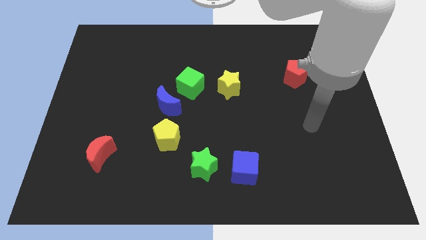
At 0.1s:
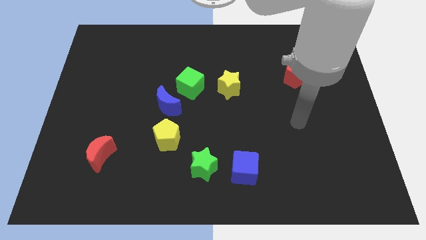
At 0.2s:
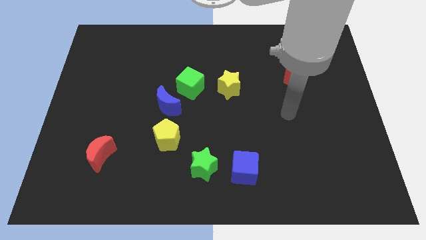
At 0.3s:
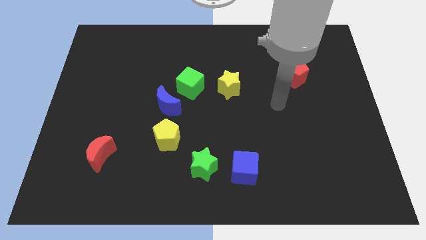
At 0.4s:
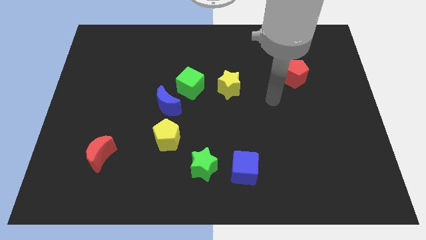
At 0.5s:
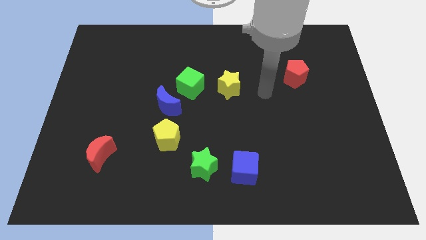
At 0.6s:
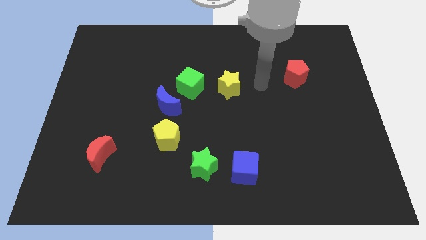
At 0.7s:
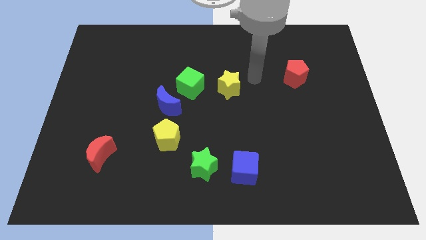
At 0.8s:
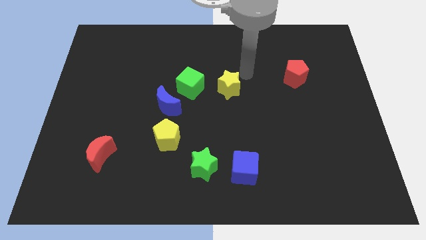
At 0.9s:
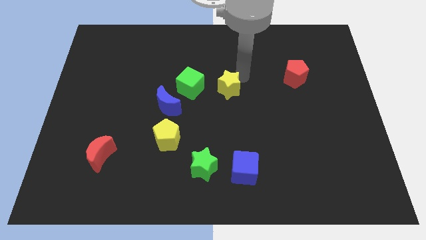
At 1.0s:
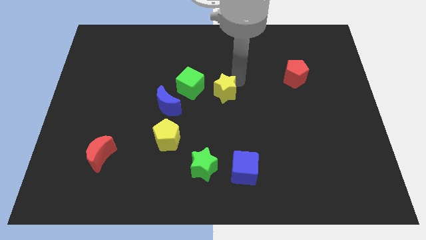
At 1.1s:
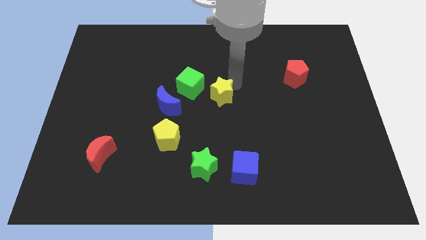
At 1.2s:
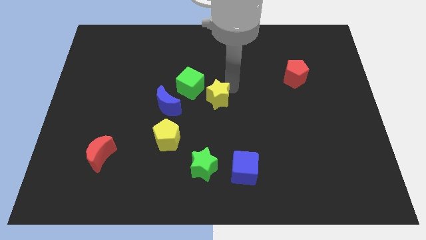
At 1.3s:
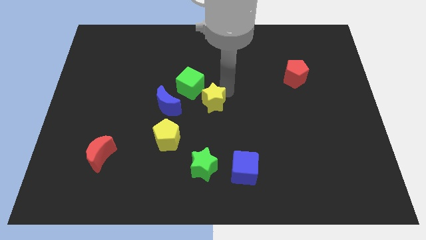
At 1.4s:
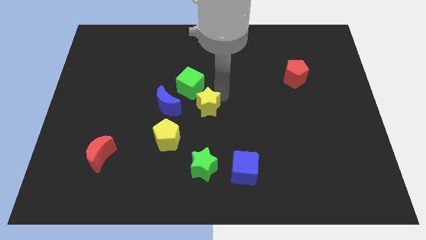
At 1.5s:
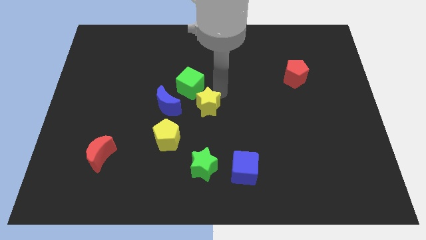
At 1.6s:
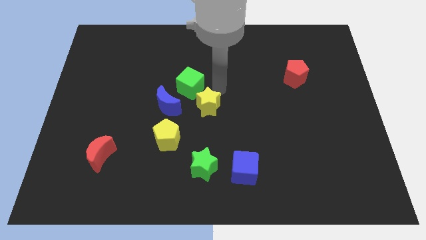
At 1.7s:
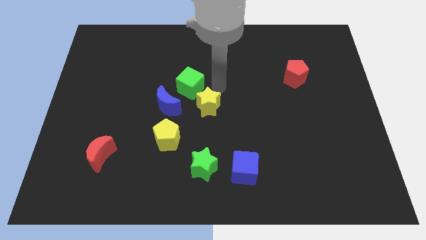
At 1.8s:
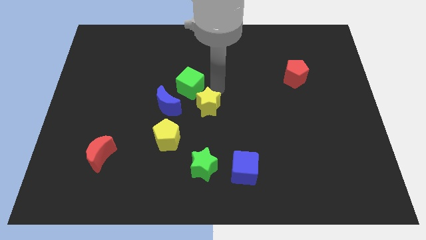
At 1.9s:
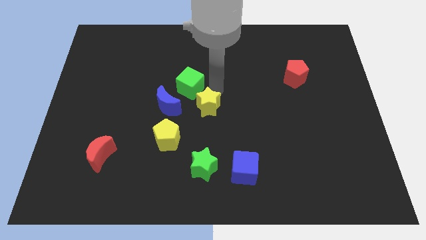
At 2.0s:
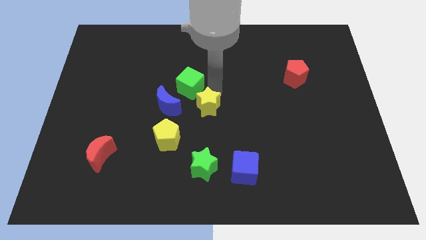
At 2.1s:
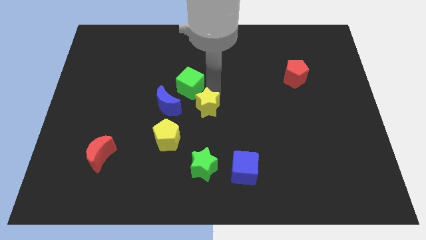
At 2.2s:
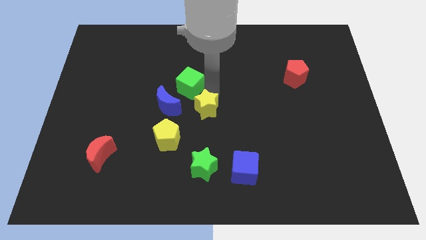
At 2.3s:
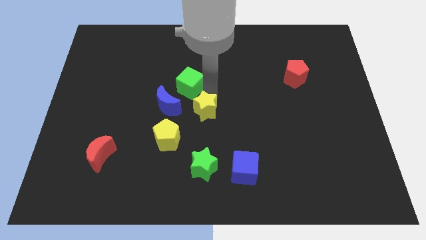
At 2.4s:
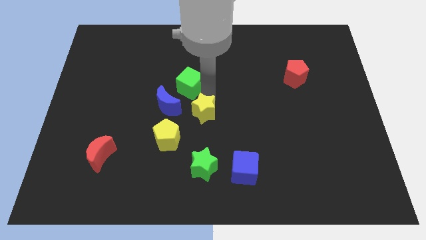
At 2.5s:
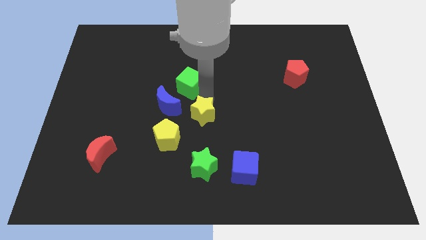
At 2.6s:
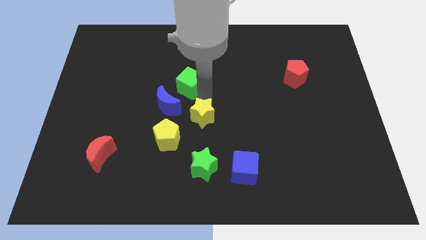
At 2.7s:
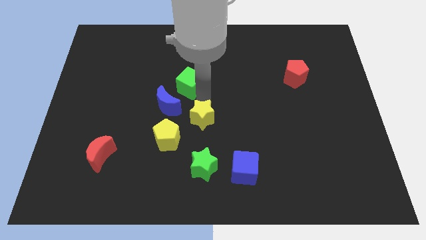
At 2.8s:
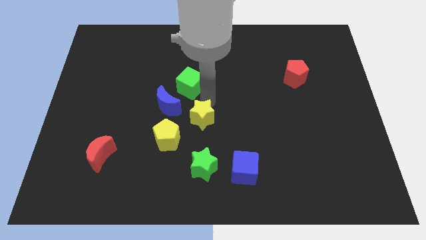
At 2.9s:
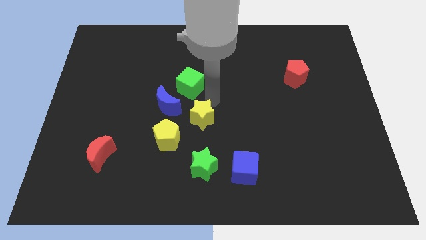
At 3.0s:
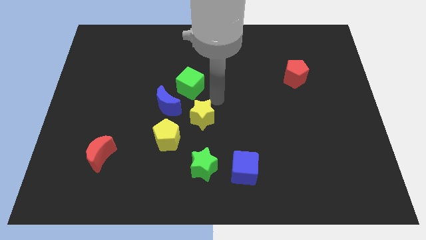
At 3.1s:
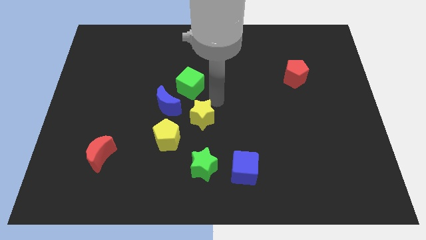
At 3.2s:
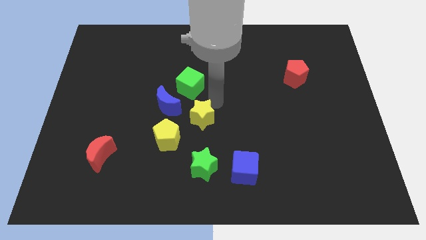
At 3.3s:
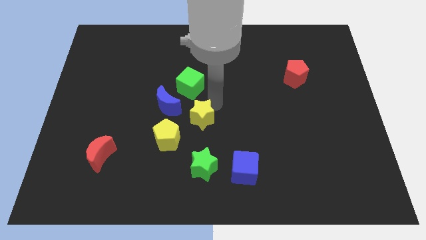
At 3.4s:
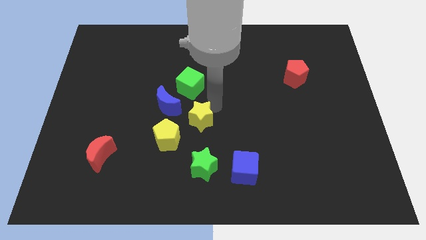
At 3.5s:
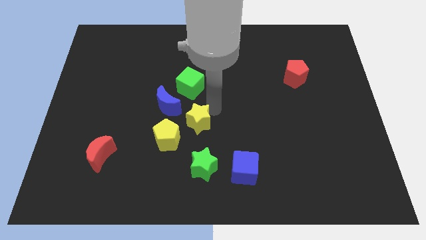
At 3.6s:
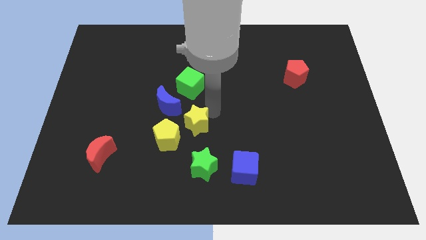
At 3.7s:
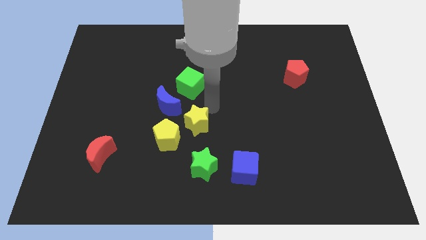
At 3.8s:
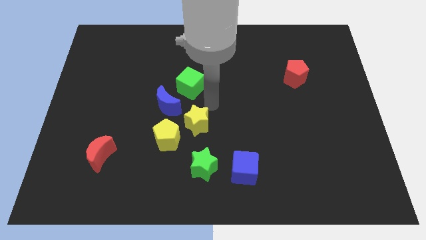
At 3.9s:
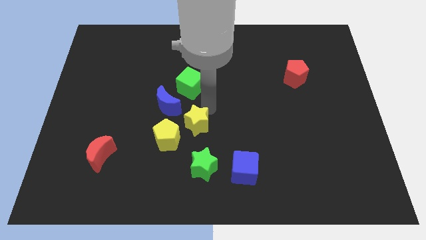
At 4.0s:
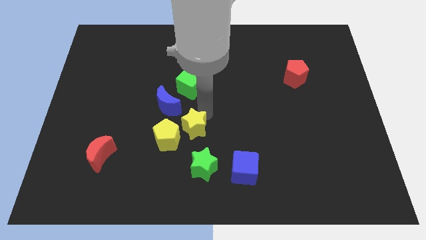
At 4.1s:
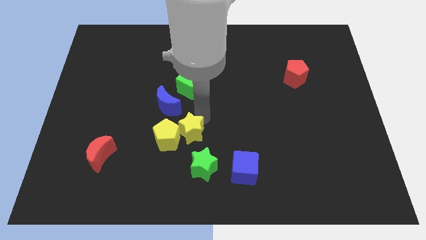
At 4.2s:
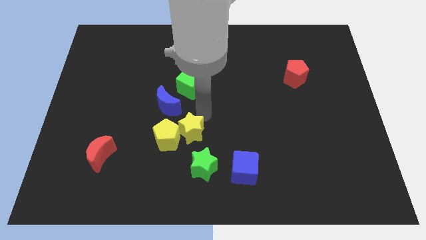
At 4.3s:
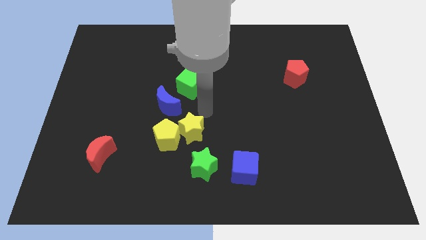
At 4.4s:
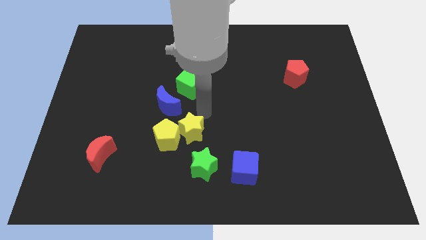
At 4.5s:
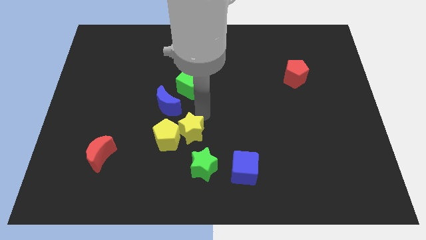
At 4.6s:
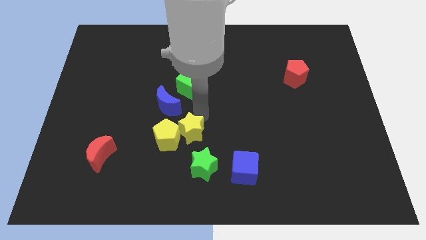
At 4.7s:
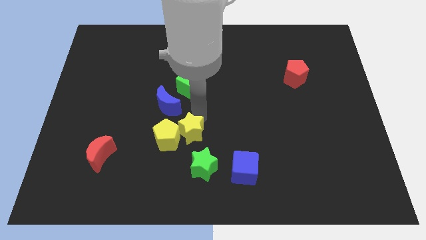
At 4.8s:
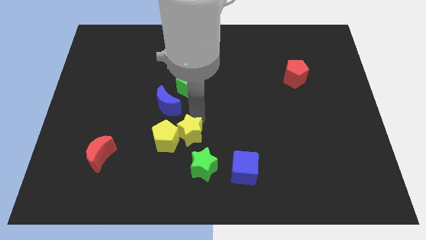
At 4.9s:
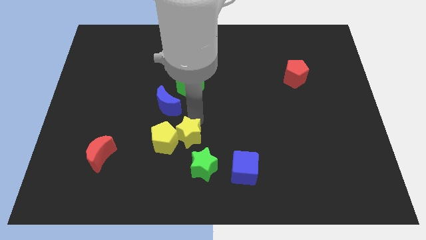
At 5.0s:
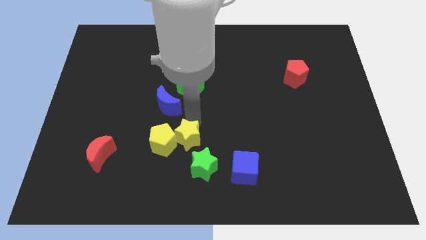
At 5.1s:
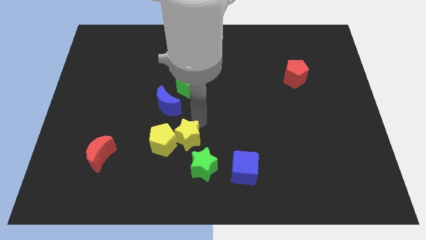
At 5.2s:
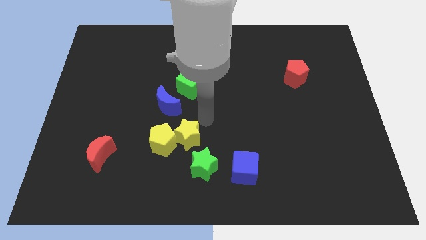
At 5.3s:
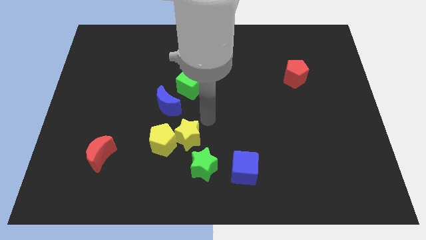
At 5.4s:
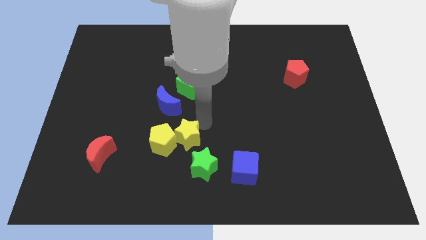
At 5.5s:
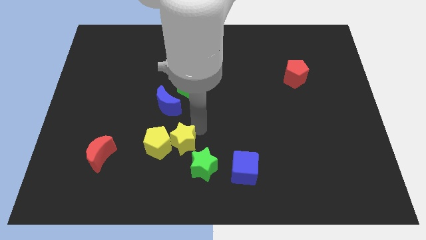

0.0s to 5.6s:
put the yellow star to the bottom of the blue moon

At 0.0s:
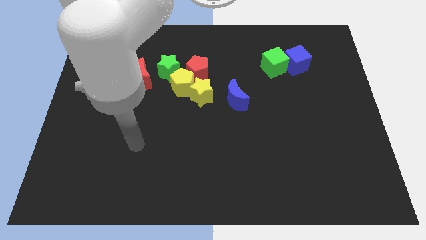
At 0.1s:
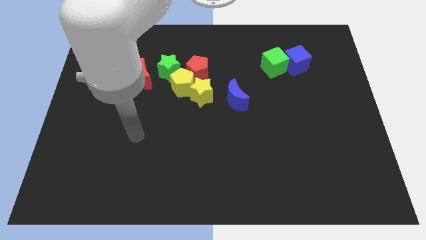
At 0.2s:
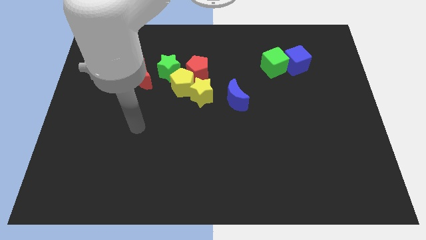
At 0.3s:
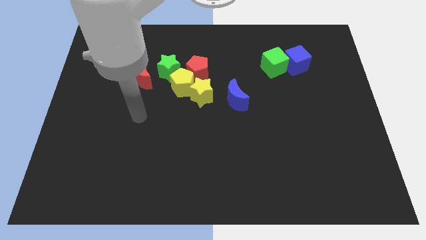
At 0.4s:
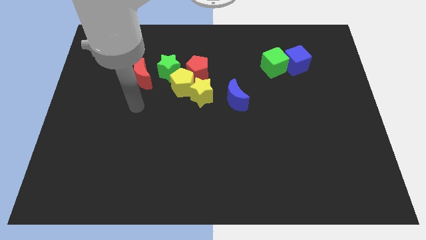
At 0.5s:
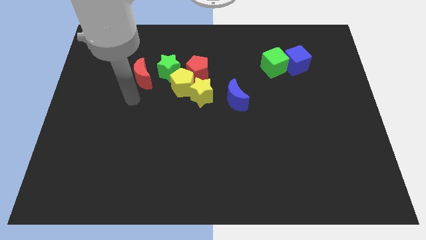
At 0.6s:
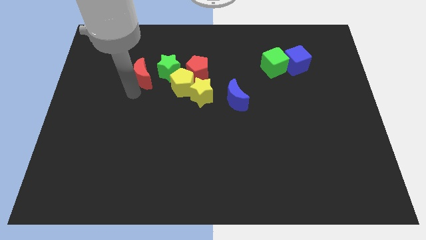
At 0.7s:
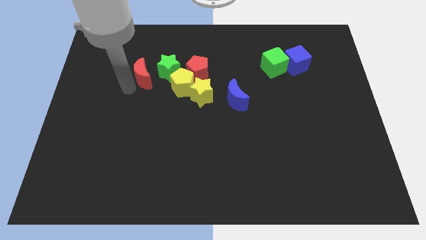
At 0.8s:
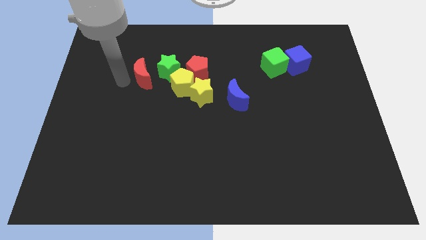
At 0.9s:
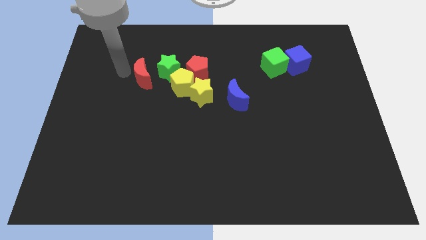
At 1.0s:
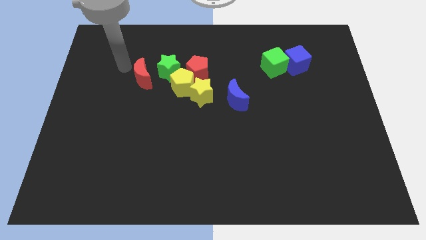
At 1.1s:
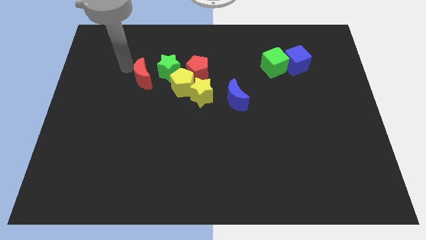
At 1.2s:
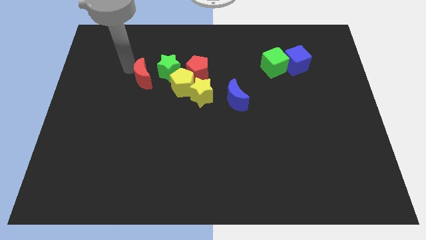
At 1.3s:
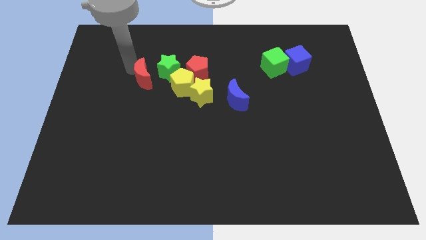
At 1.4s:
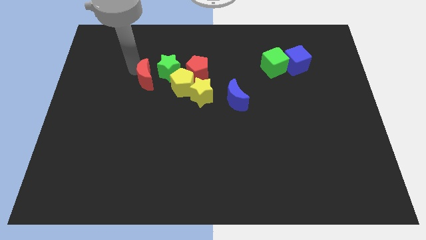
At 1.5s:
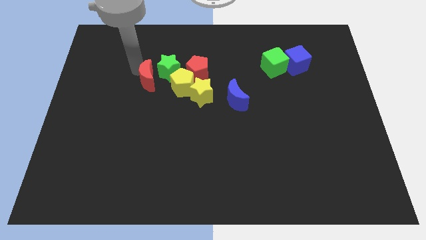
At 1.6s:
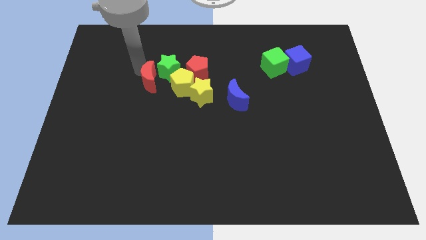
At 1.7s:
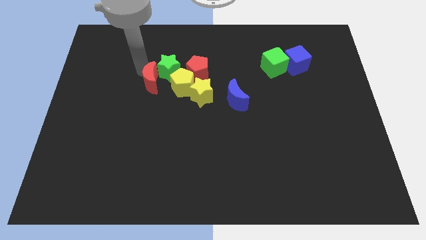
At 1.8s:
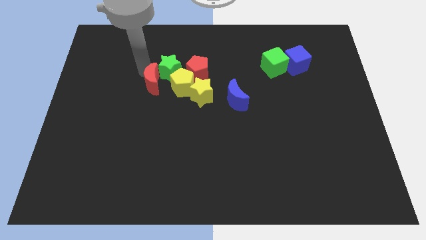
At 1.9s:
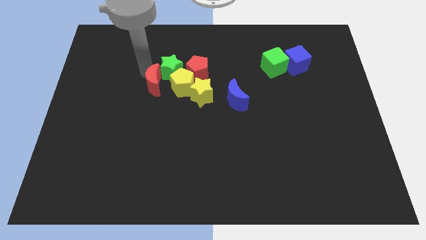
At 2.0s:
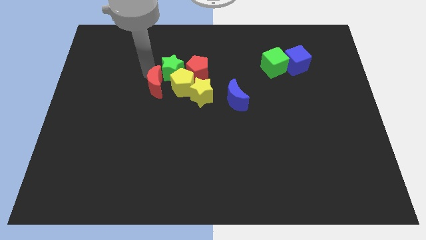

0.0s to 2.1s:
slide the red moon diagonally down and to the left of the red pentagon
